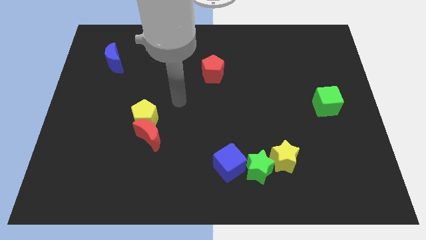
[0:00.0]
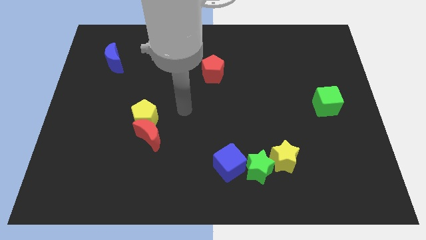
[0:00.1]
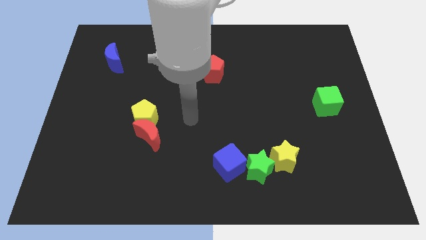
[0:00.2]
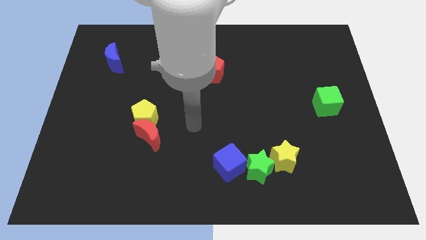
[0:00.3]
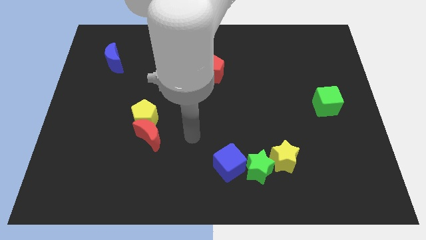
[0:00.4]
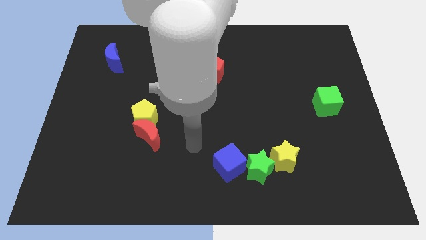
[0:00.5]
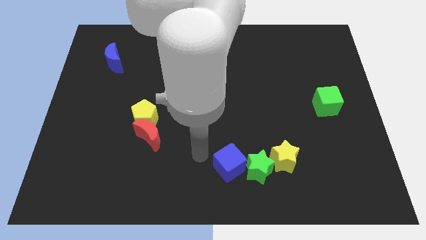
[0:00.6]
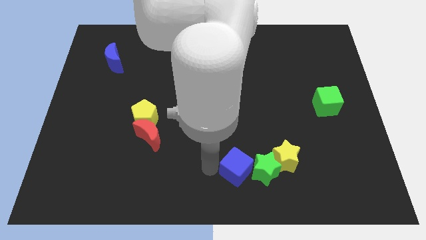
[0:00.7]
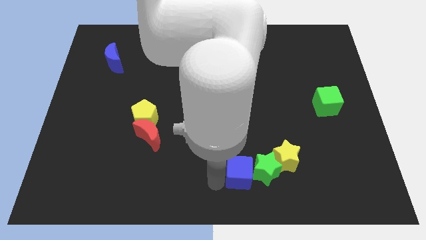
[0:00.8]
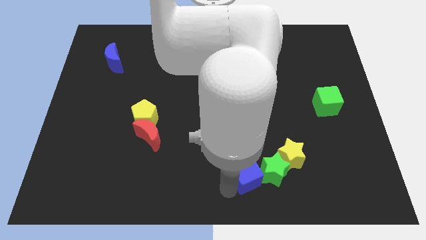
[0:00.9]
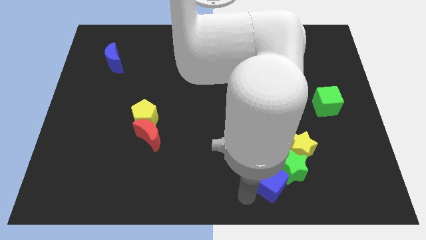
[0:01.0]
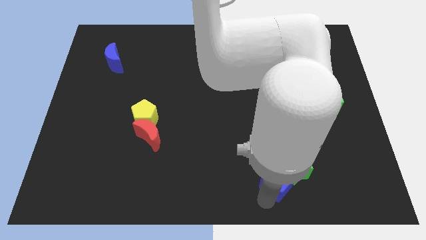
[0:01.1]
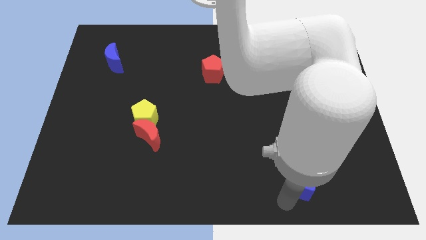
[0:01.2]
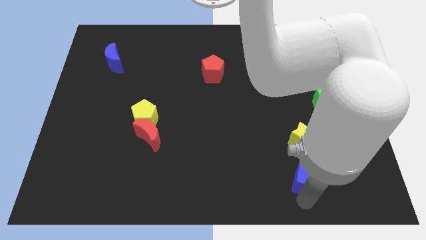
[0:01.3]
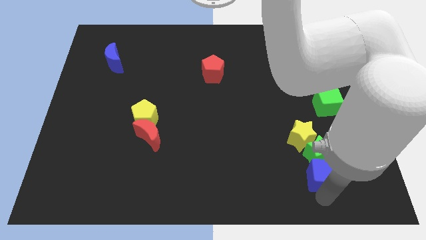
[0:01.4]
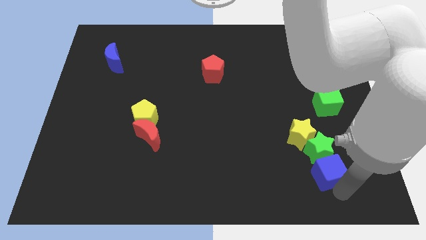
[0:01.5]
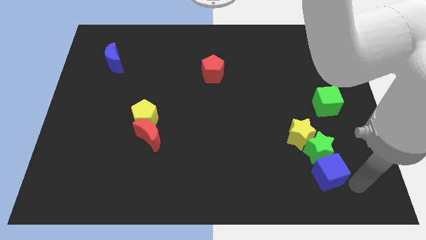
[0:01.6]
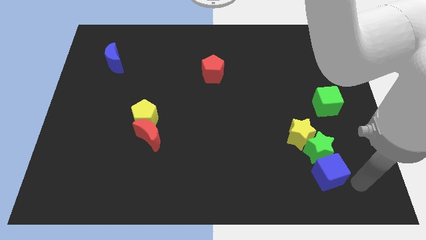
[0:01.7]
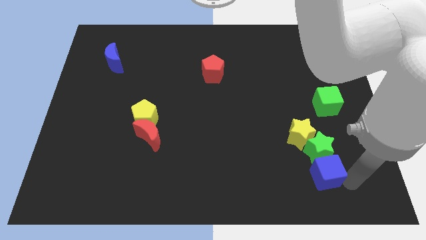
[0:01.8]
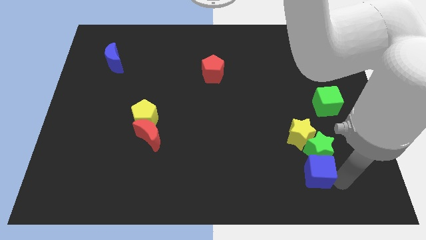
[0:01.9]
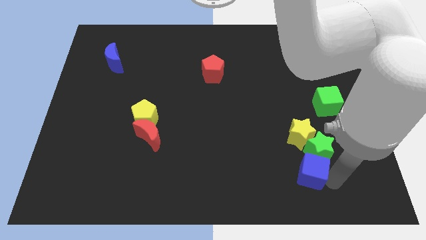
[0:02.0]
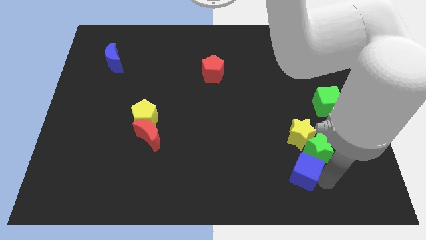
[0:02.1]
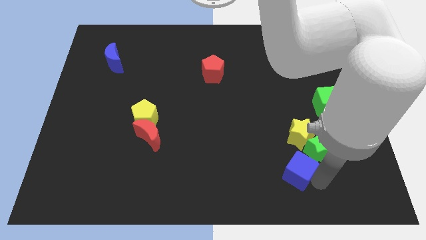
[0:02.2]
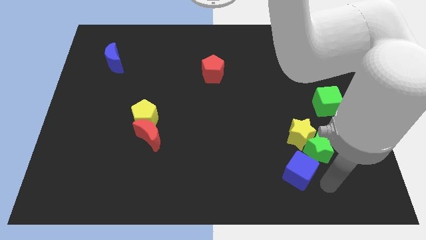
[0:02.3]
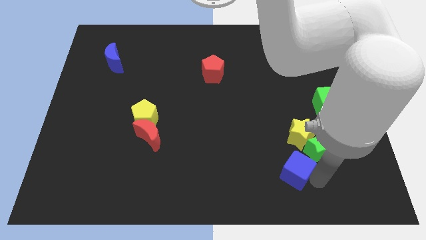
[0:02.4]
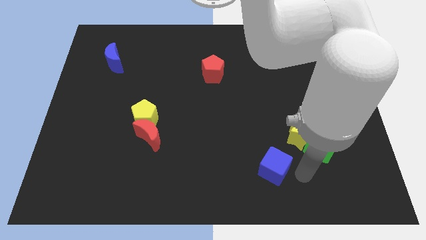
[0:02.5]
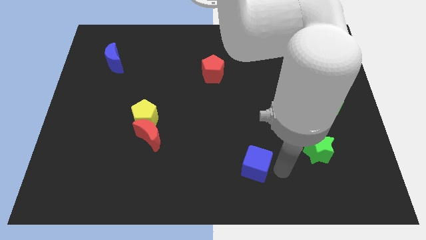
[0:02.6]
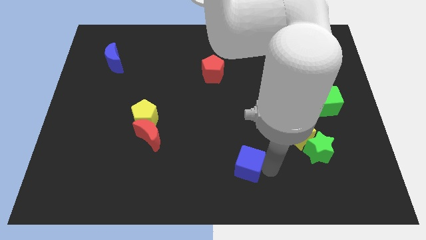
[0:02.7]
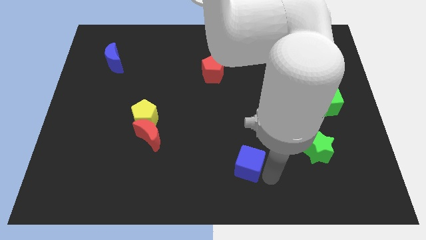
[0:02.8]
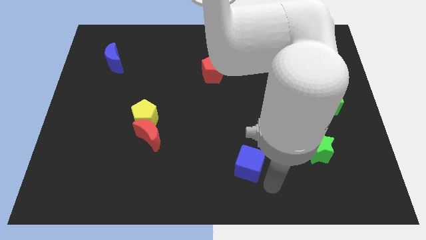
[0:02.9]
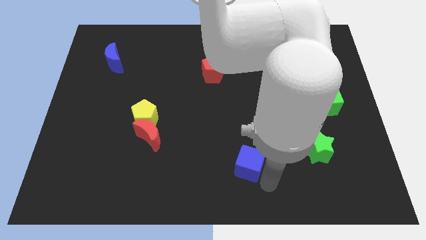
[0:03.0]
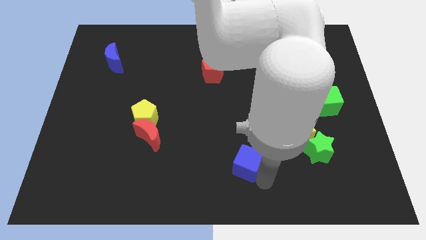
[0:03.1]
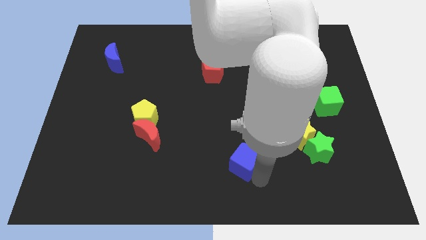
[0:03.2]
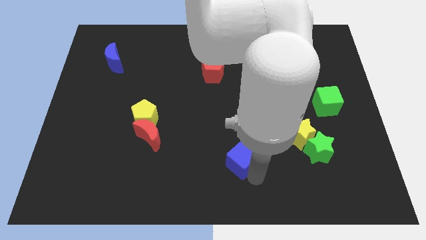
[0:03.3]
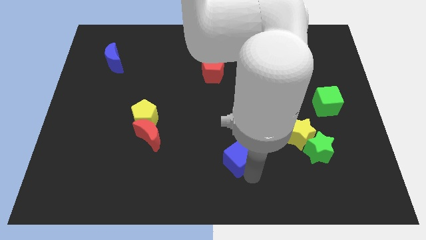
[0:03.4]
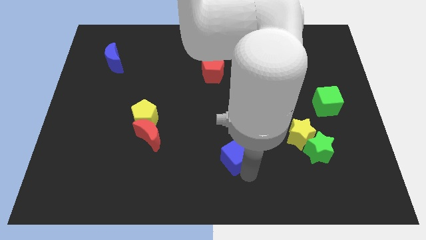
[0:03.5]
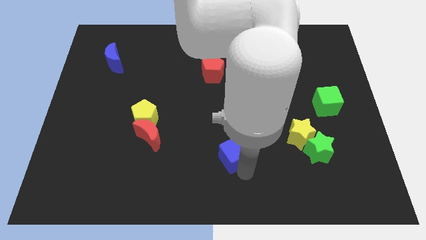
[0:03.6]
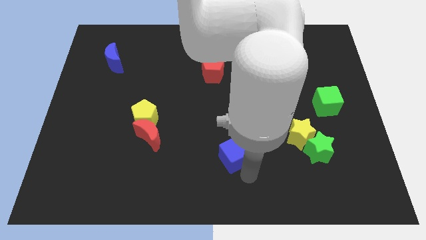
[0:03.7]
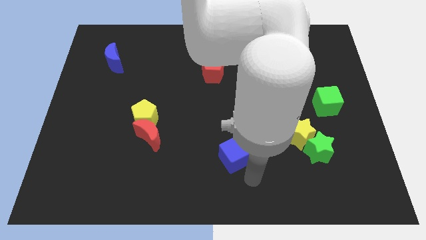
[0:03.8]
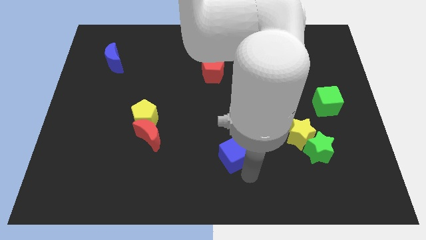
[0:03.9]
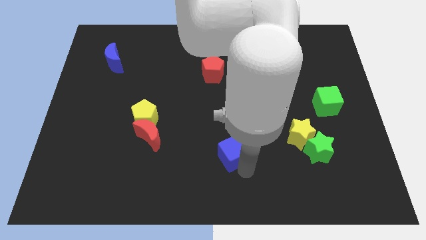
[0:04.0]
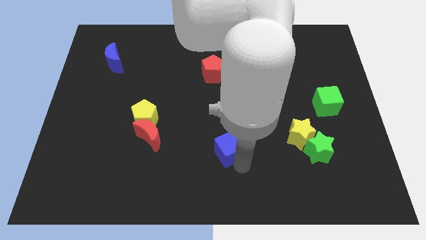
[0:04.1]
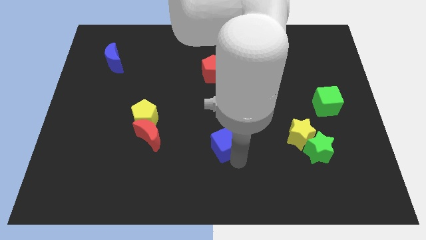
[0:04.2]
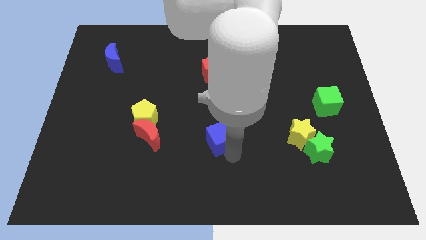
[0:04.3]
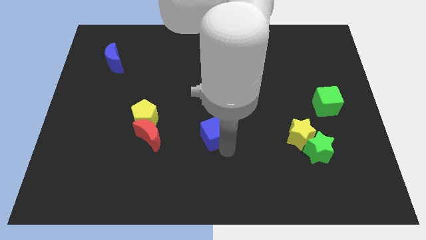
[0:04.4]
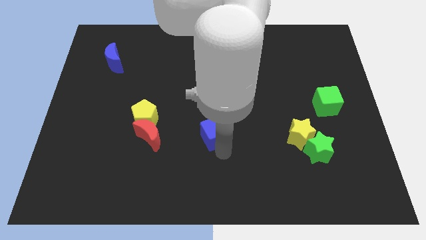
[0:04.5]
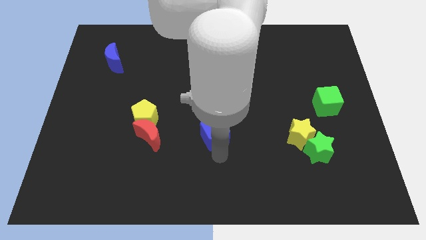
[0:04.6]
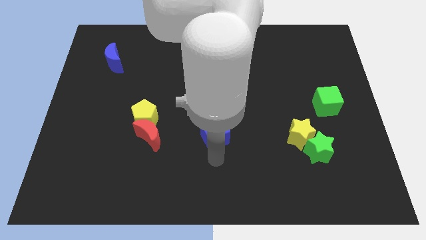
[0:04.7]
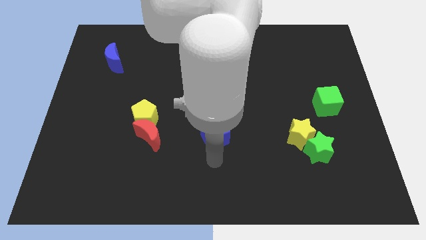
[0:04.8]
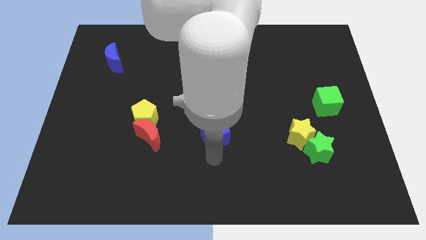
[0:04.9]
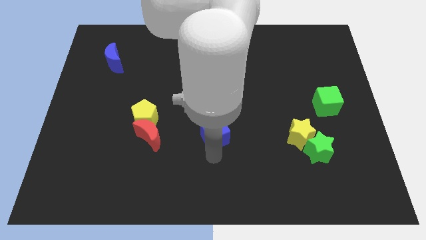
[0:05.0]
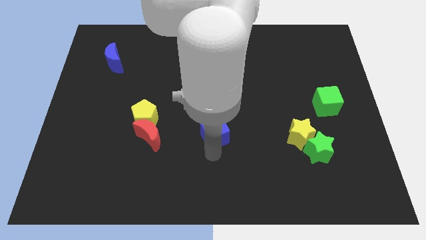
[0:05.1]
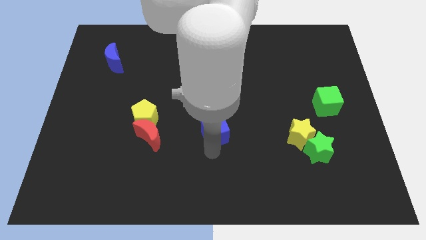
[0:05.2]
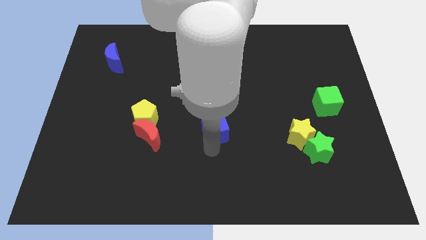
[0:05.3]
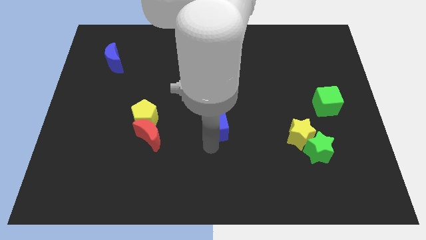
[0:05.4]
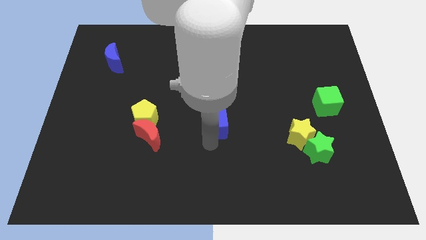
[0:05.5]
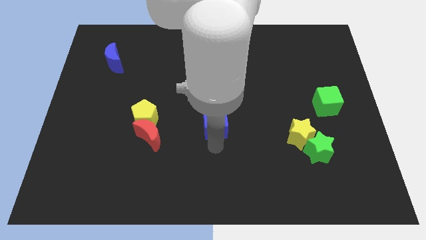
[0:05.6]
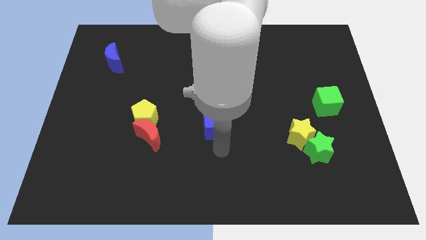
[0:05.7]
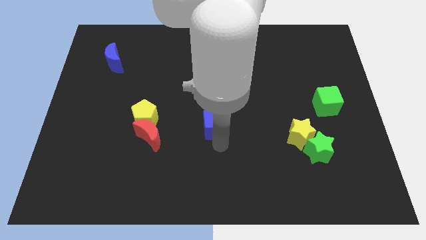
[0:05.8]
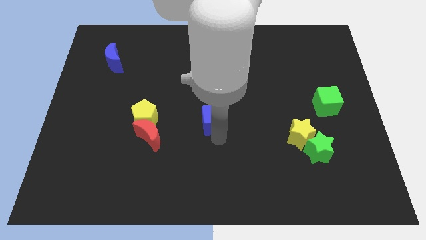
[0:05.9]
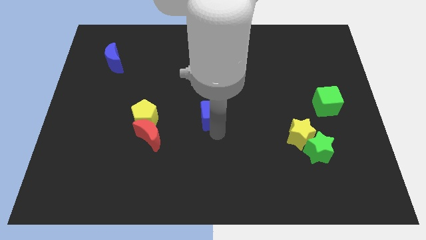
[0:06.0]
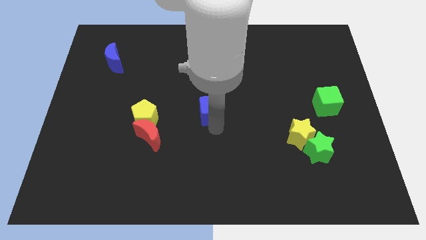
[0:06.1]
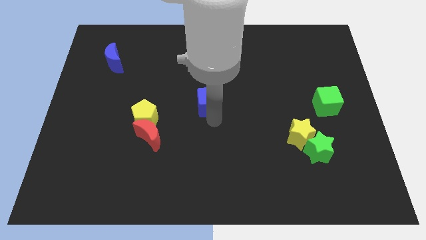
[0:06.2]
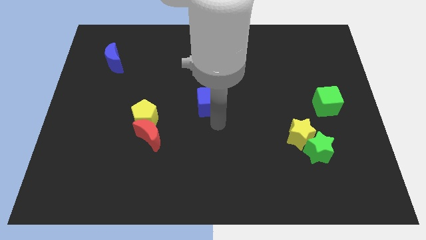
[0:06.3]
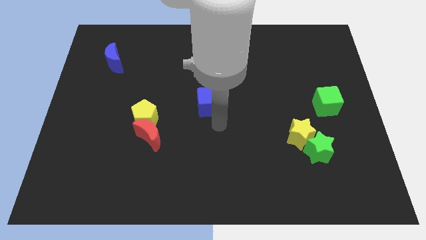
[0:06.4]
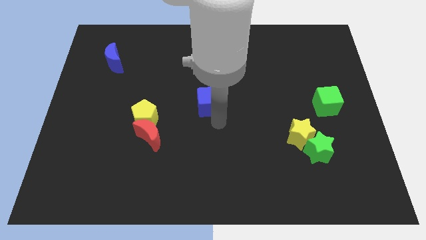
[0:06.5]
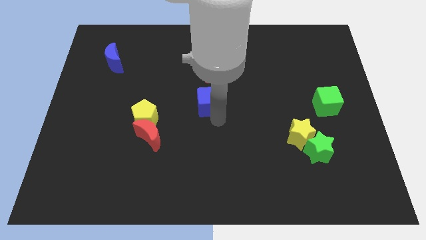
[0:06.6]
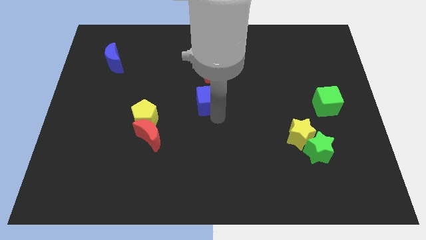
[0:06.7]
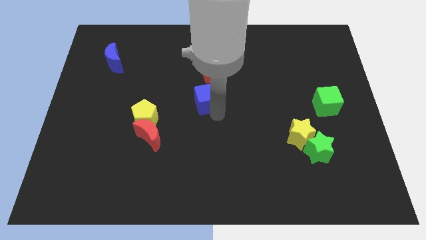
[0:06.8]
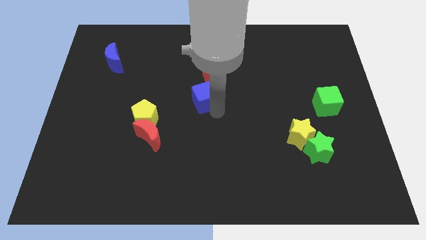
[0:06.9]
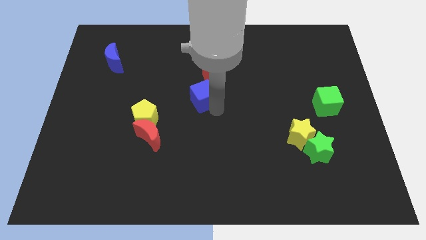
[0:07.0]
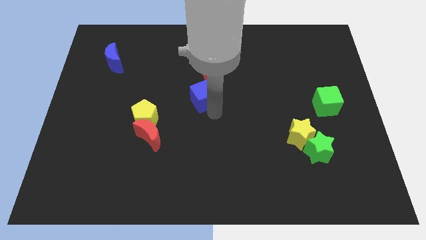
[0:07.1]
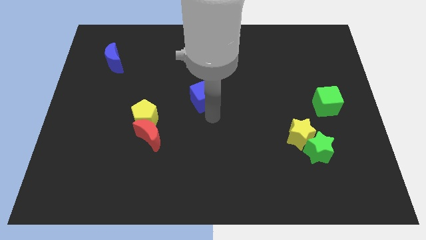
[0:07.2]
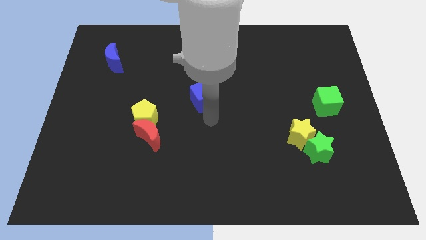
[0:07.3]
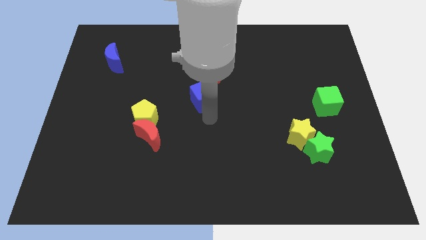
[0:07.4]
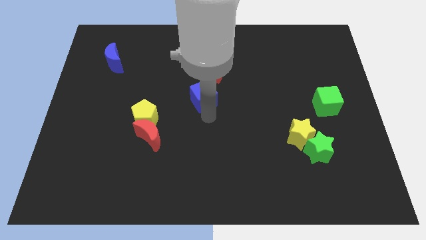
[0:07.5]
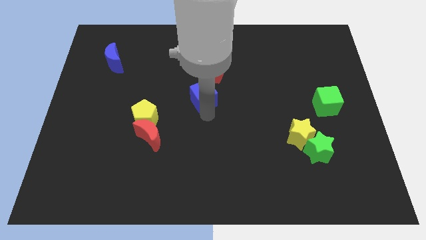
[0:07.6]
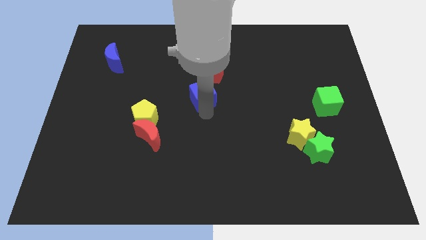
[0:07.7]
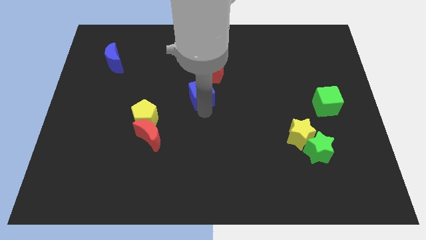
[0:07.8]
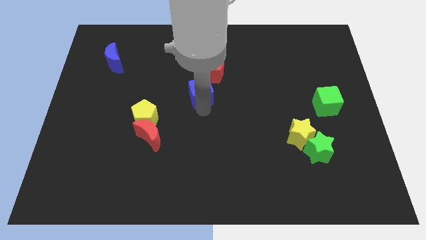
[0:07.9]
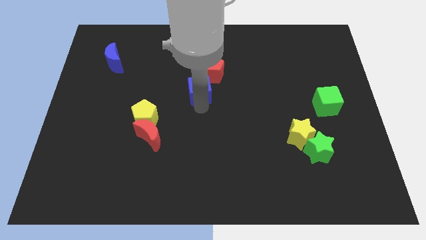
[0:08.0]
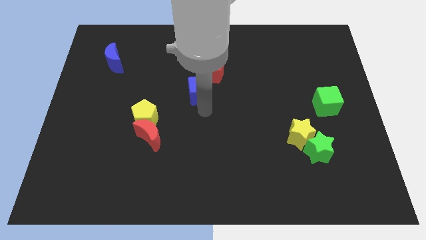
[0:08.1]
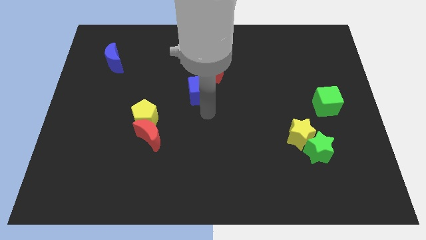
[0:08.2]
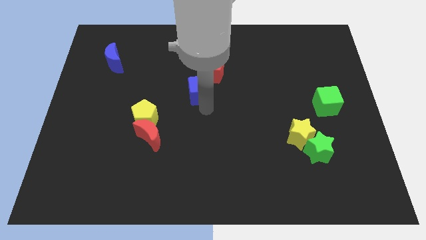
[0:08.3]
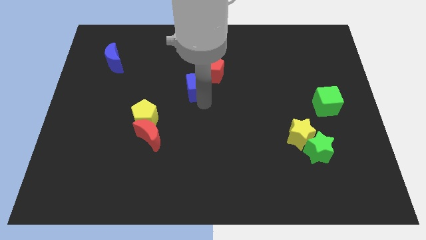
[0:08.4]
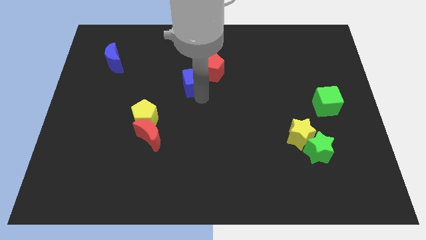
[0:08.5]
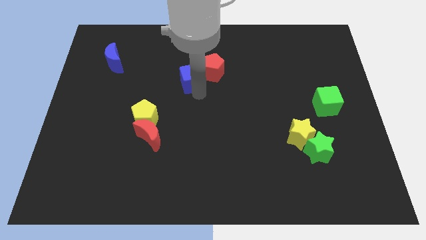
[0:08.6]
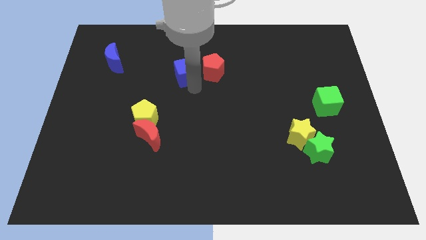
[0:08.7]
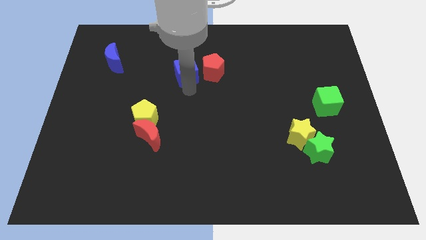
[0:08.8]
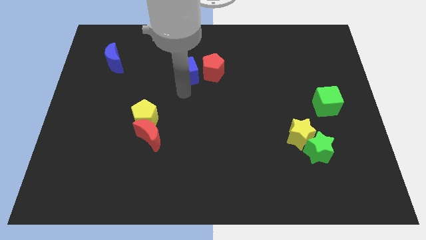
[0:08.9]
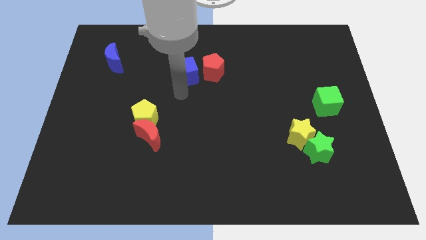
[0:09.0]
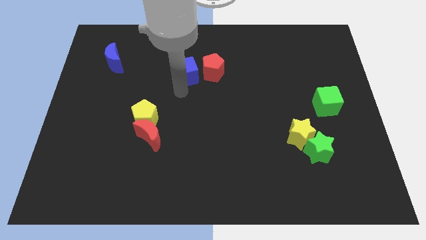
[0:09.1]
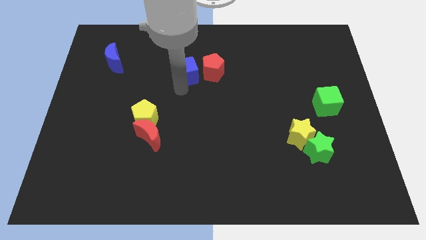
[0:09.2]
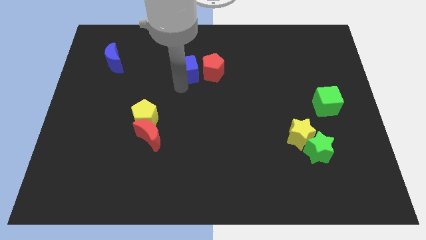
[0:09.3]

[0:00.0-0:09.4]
move the blue cube to the top left of the red pentagon
